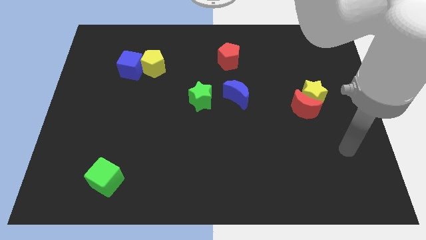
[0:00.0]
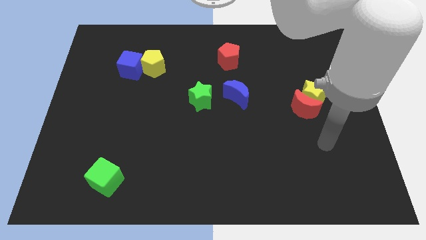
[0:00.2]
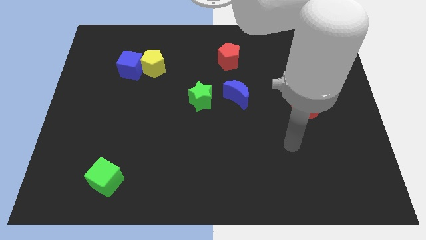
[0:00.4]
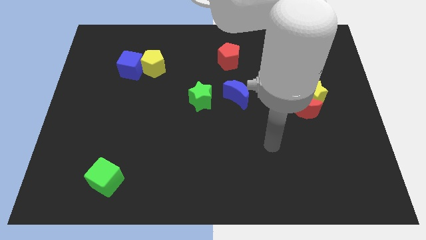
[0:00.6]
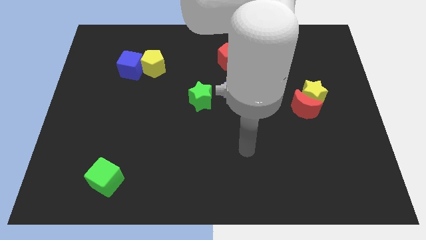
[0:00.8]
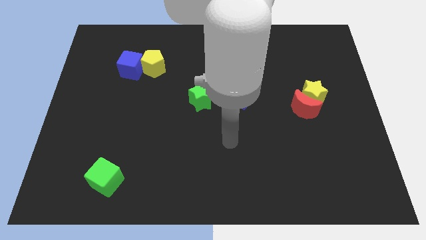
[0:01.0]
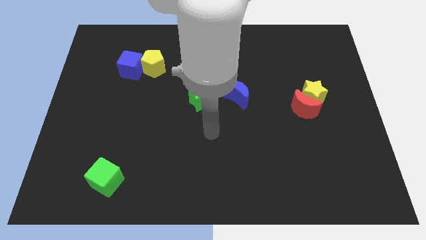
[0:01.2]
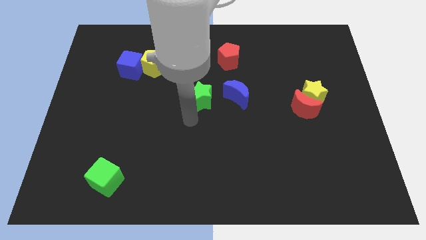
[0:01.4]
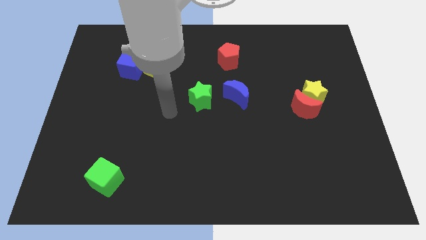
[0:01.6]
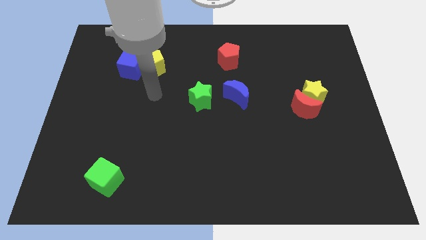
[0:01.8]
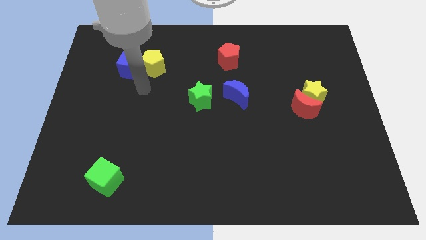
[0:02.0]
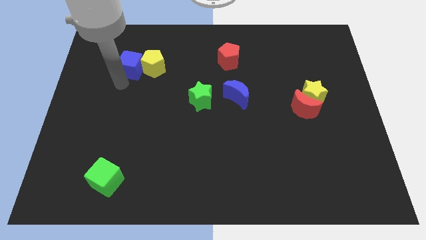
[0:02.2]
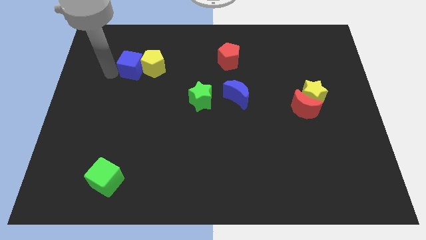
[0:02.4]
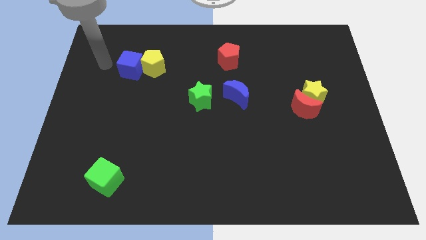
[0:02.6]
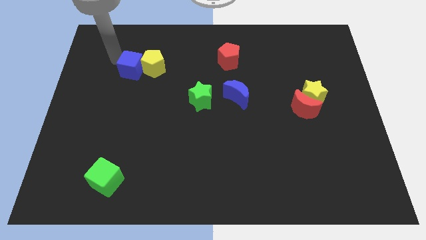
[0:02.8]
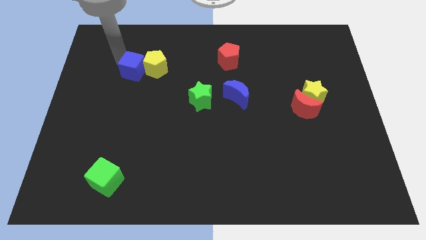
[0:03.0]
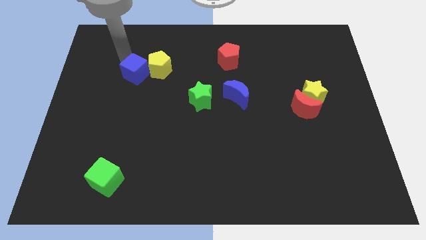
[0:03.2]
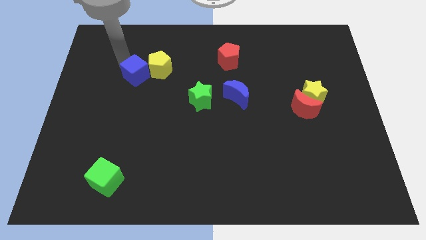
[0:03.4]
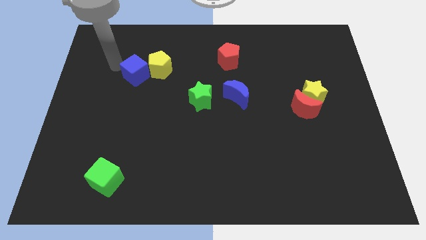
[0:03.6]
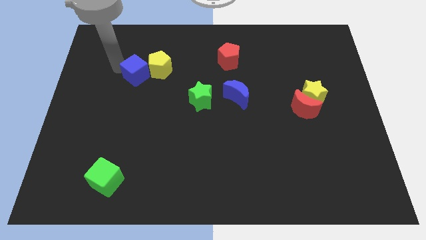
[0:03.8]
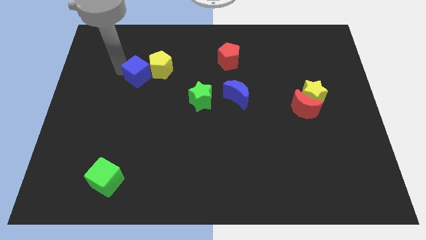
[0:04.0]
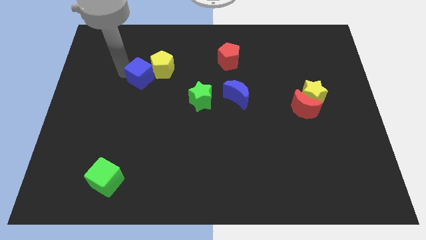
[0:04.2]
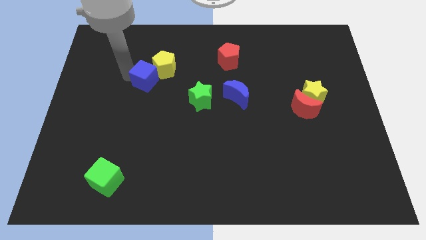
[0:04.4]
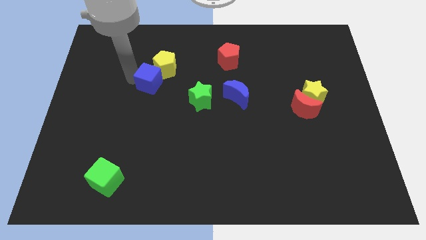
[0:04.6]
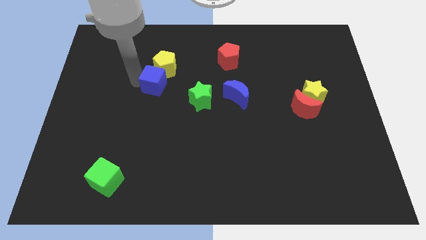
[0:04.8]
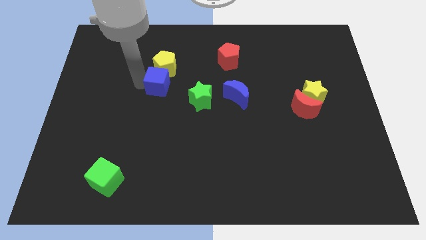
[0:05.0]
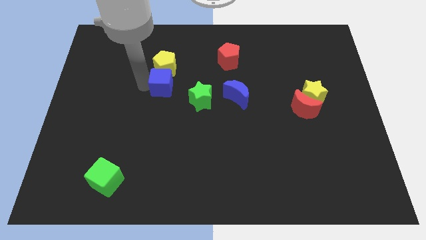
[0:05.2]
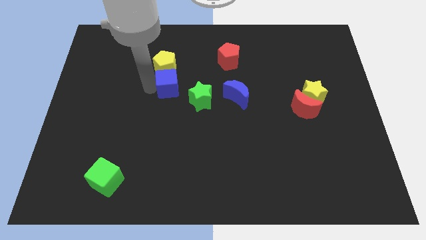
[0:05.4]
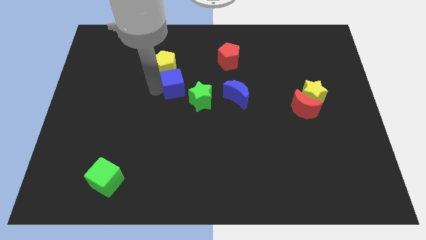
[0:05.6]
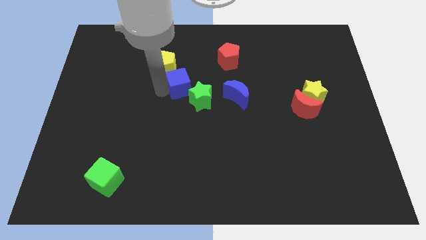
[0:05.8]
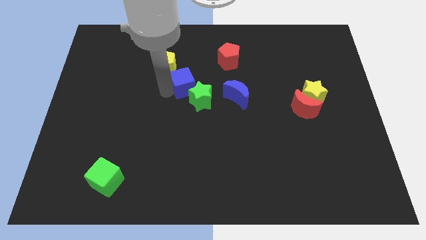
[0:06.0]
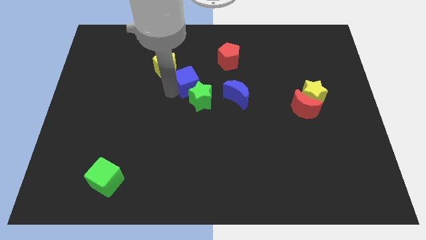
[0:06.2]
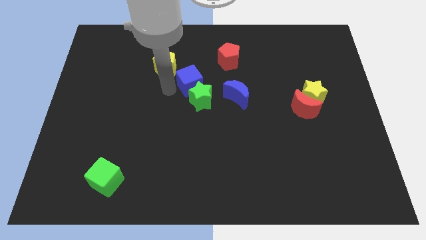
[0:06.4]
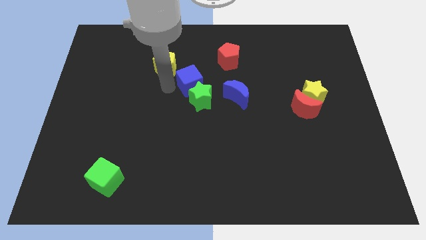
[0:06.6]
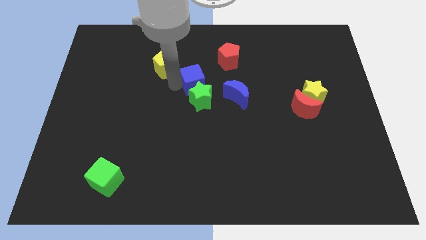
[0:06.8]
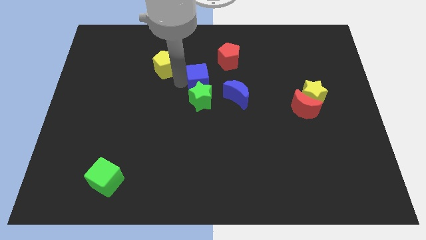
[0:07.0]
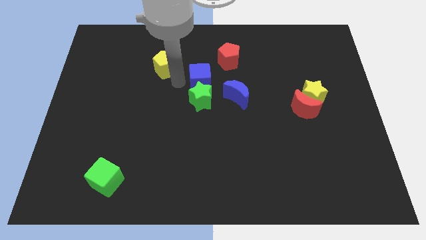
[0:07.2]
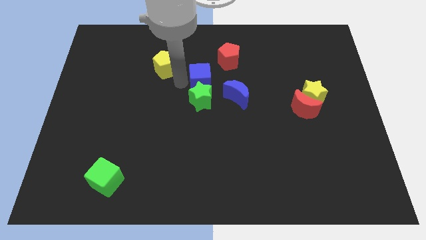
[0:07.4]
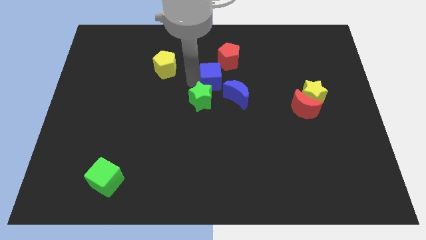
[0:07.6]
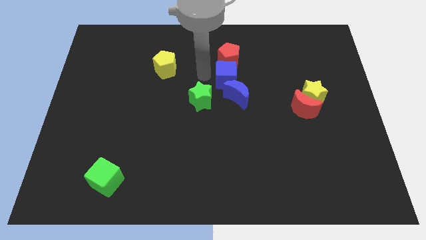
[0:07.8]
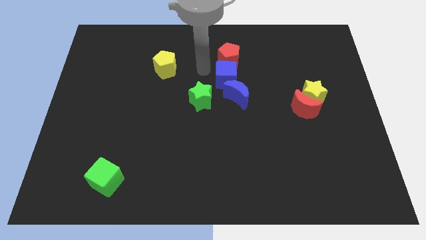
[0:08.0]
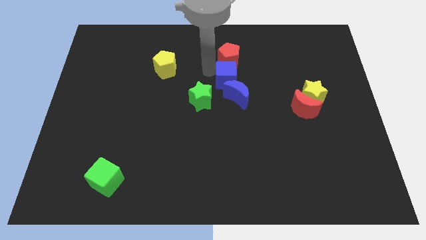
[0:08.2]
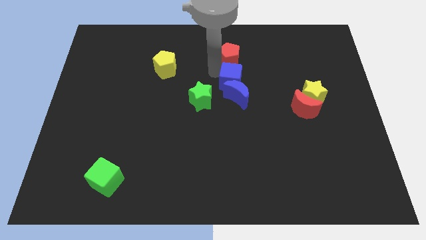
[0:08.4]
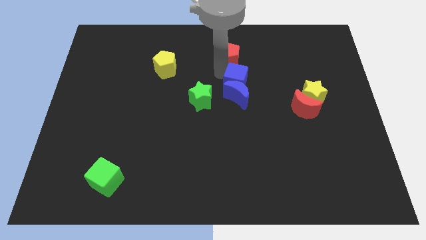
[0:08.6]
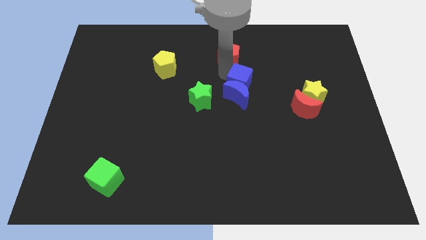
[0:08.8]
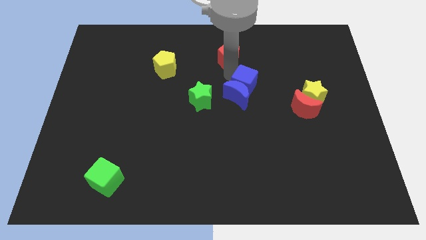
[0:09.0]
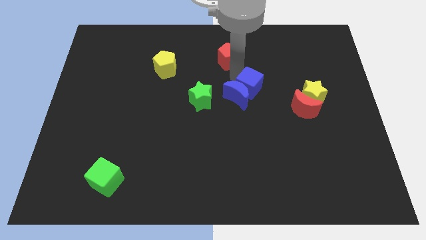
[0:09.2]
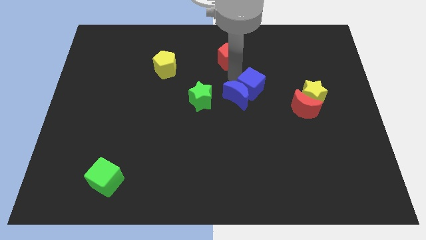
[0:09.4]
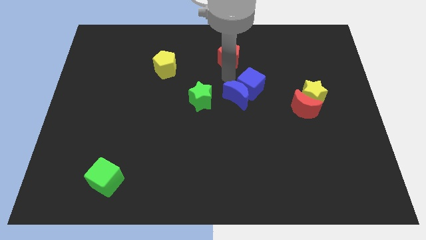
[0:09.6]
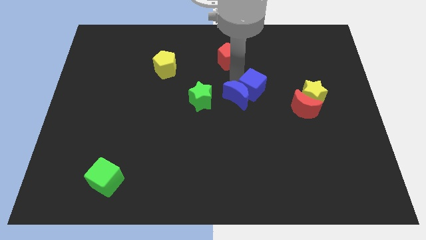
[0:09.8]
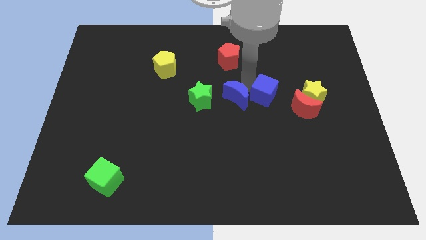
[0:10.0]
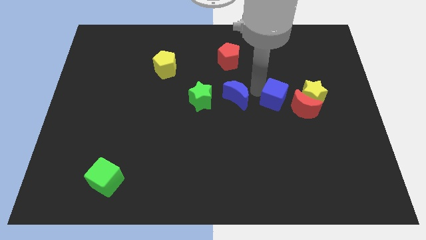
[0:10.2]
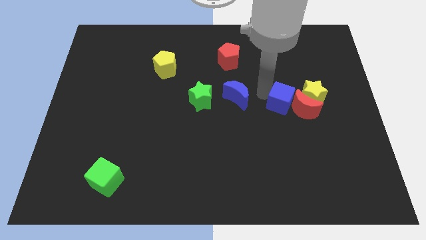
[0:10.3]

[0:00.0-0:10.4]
slide the blue cube towards the red moon

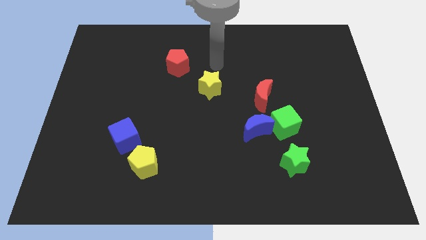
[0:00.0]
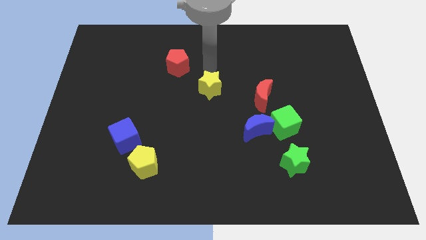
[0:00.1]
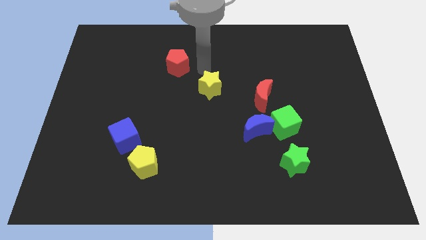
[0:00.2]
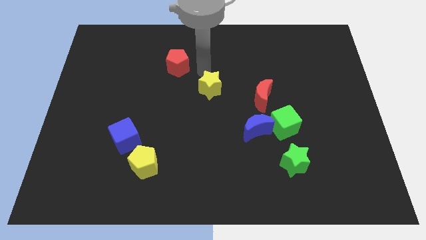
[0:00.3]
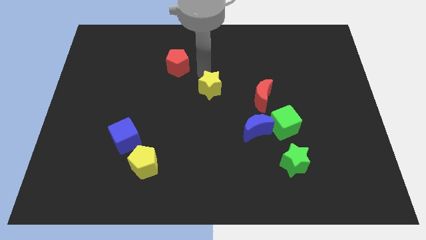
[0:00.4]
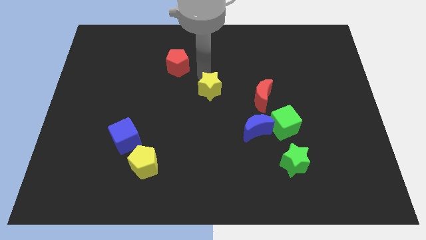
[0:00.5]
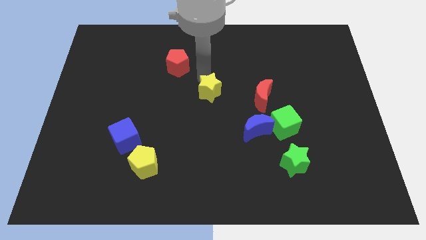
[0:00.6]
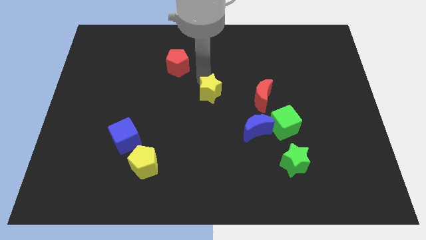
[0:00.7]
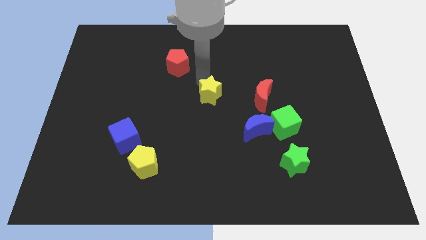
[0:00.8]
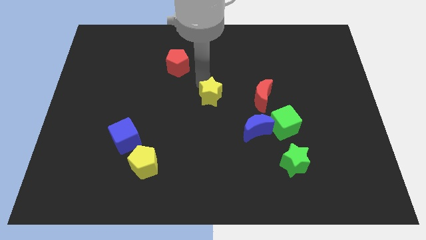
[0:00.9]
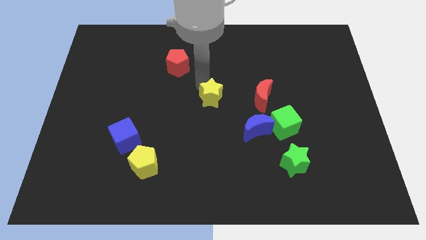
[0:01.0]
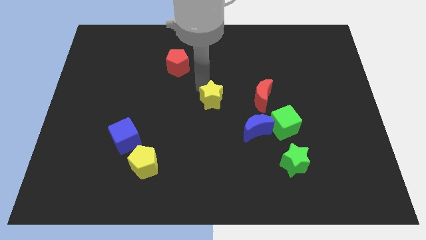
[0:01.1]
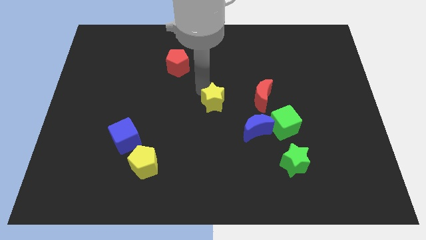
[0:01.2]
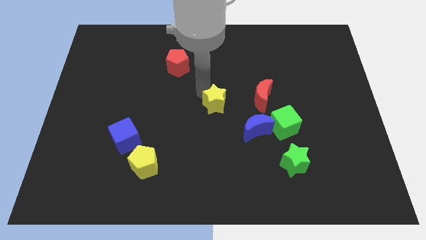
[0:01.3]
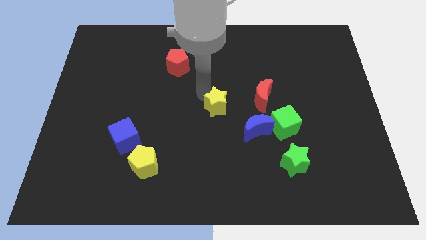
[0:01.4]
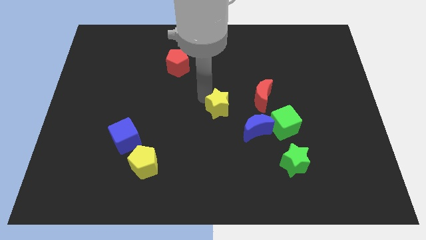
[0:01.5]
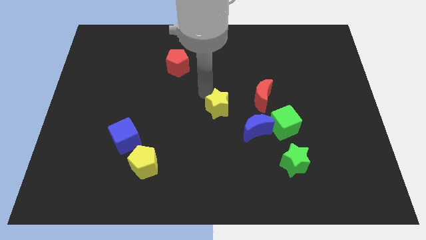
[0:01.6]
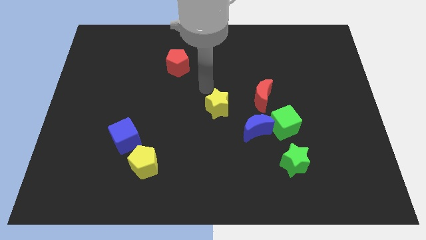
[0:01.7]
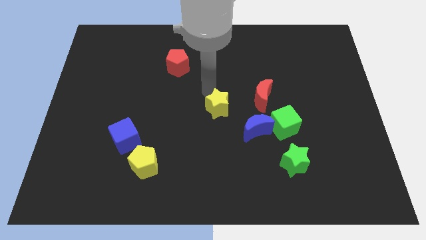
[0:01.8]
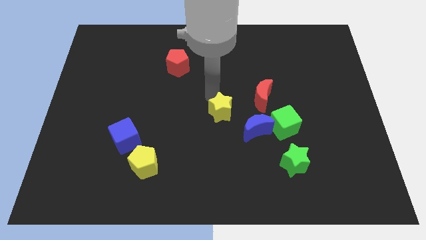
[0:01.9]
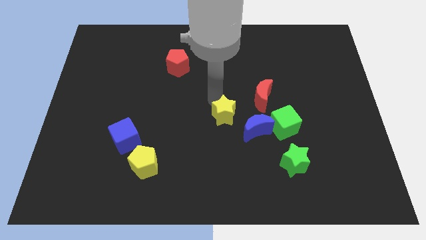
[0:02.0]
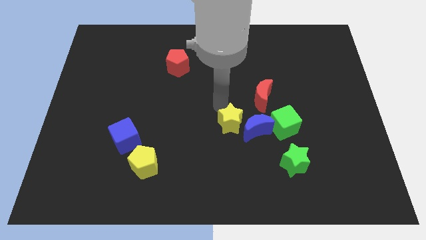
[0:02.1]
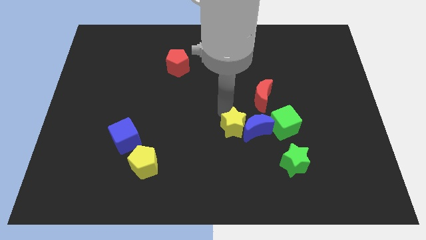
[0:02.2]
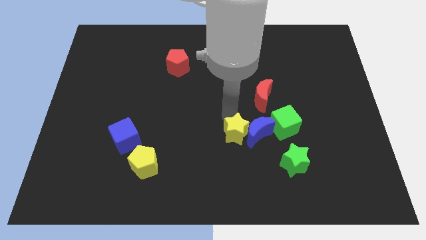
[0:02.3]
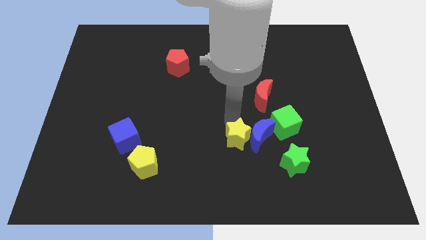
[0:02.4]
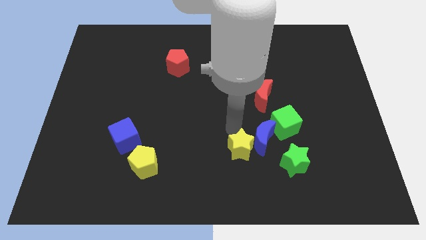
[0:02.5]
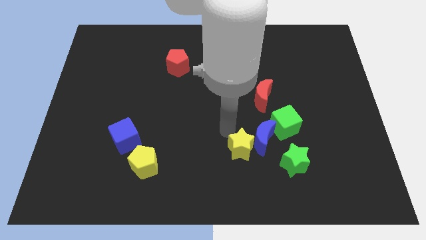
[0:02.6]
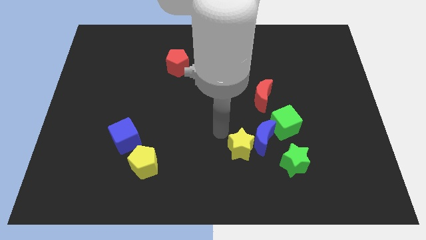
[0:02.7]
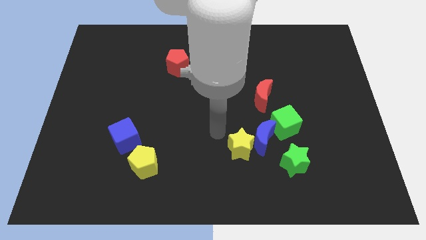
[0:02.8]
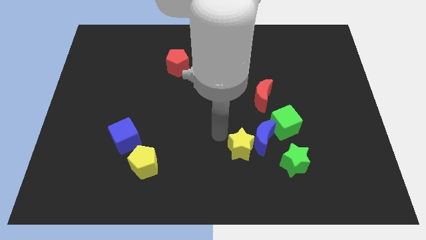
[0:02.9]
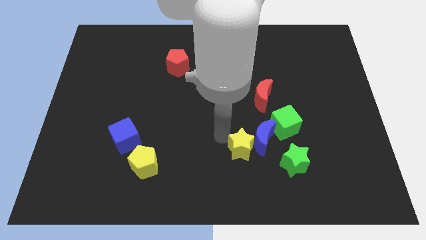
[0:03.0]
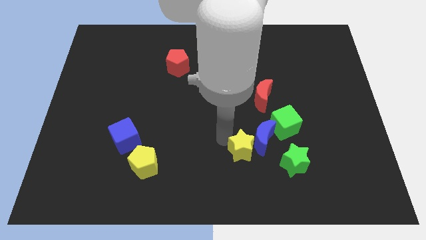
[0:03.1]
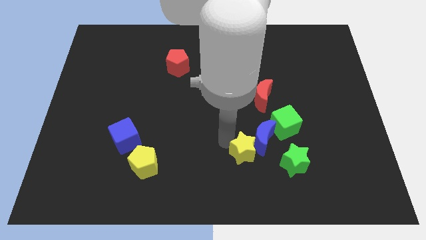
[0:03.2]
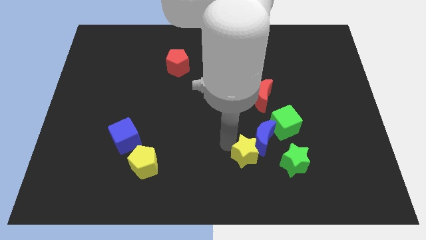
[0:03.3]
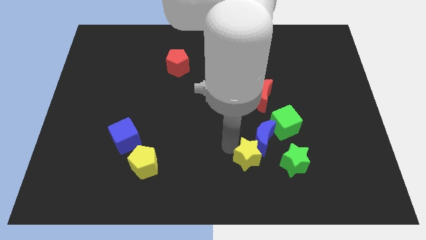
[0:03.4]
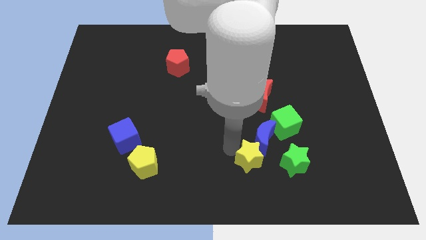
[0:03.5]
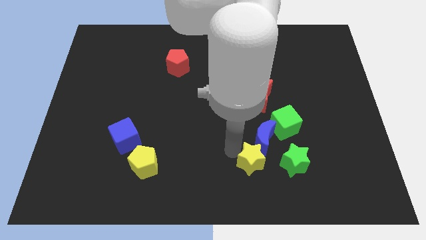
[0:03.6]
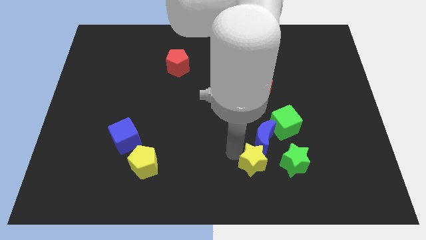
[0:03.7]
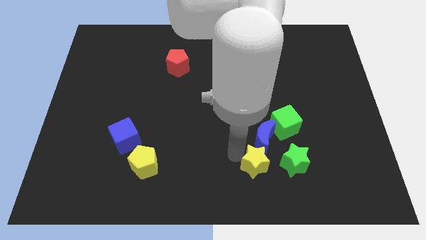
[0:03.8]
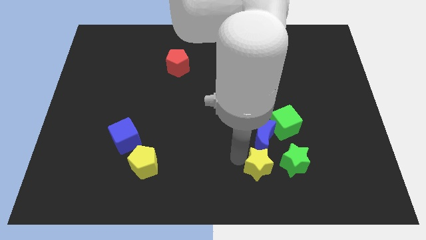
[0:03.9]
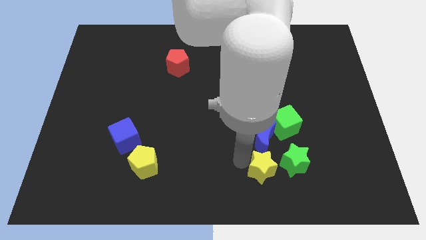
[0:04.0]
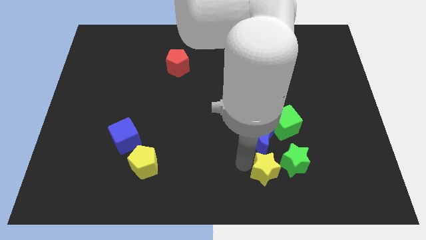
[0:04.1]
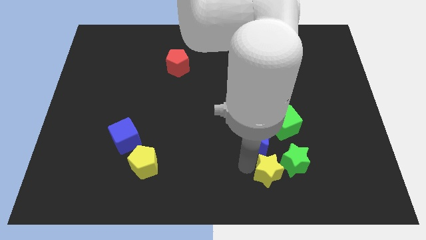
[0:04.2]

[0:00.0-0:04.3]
put the yellow star to the green star
